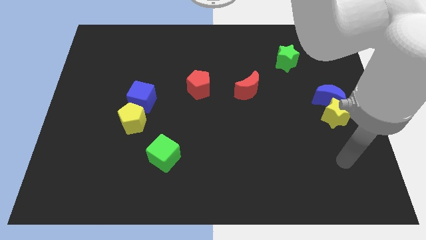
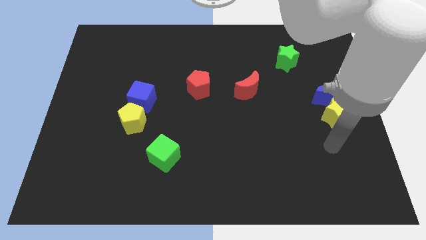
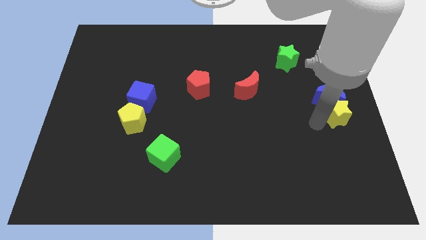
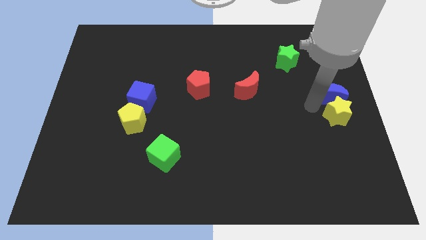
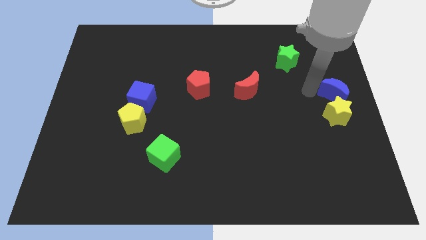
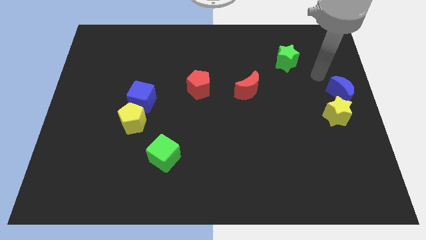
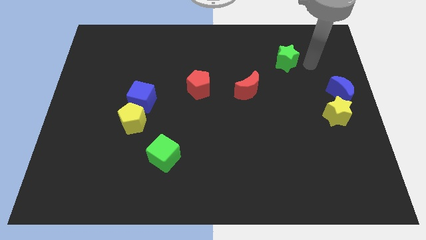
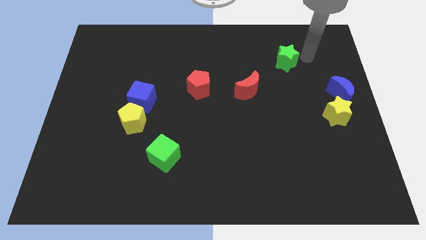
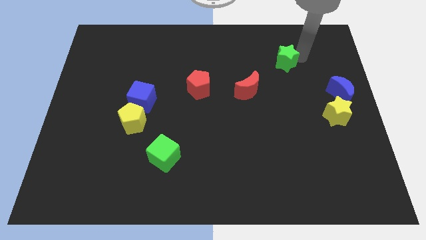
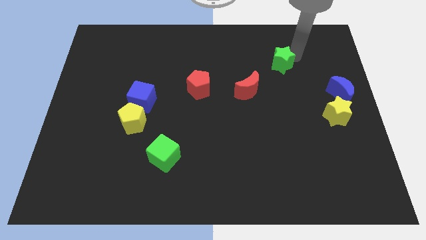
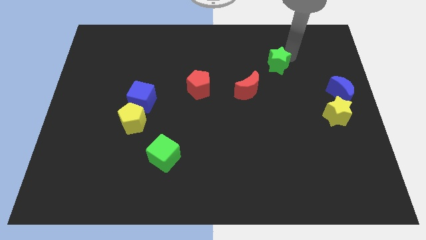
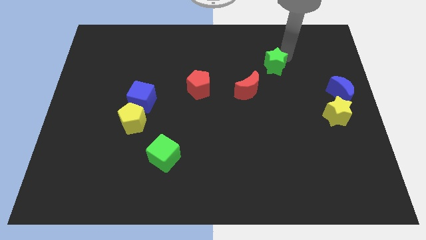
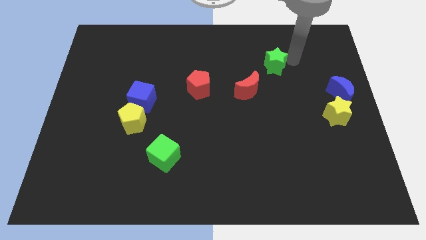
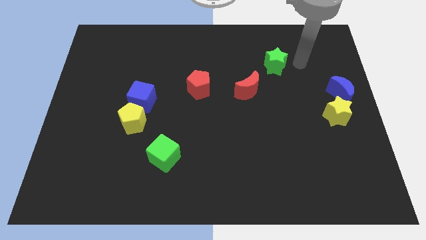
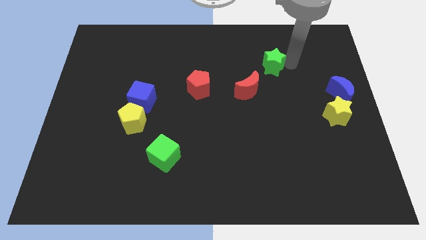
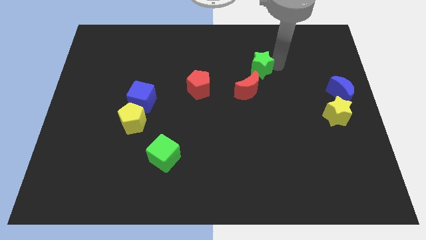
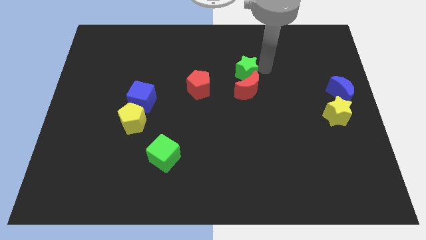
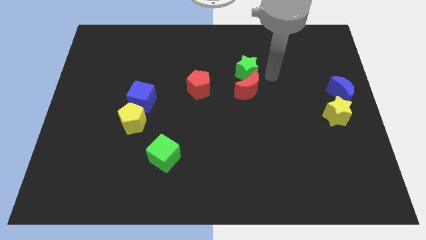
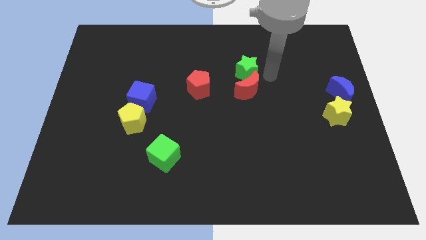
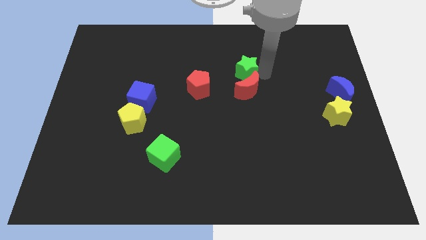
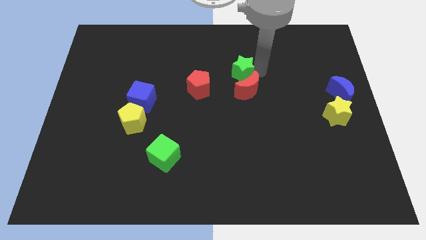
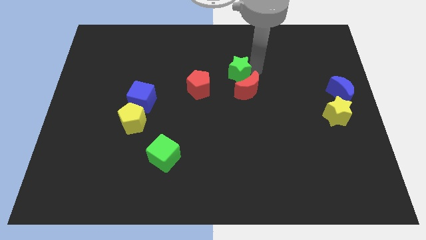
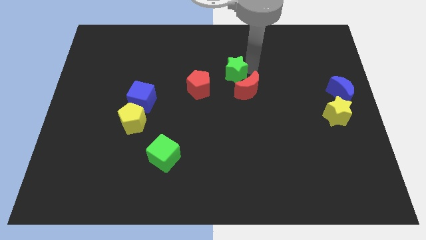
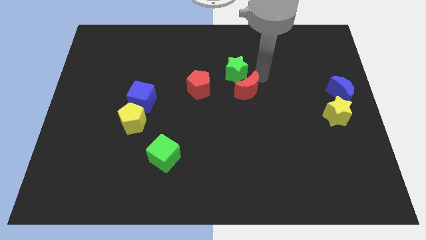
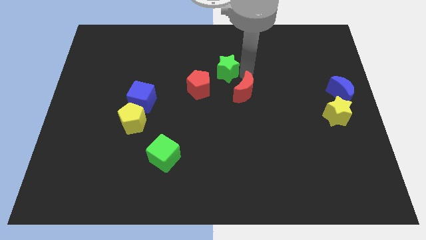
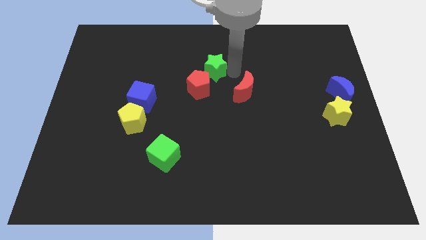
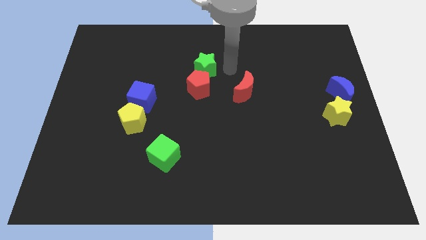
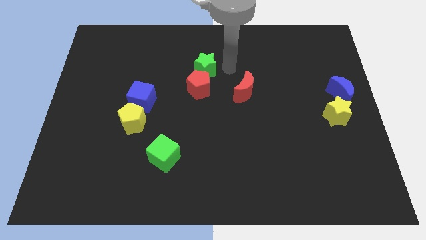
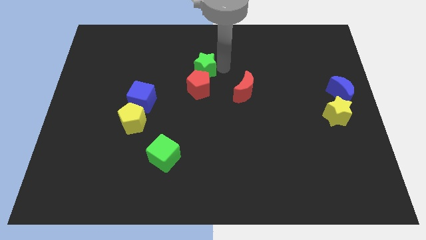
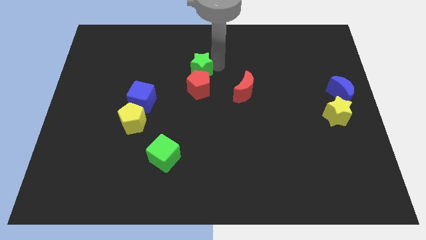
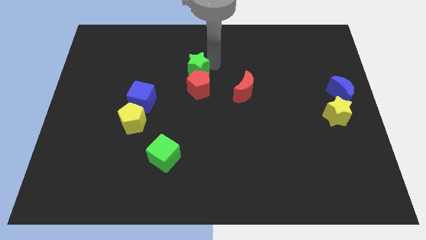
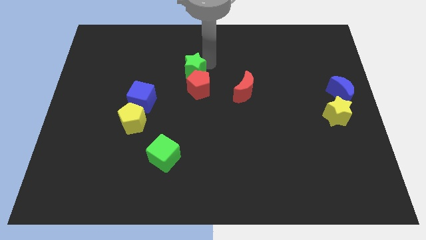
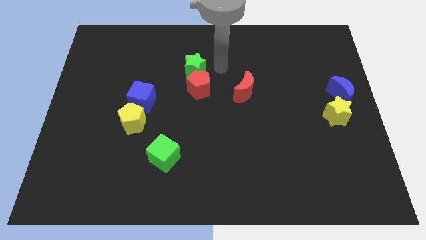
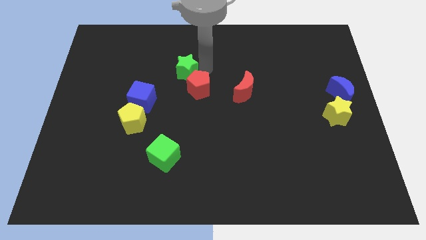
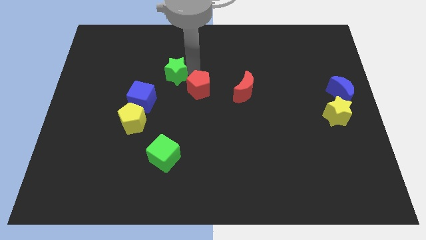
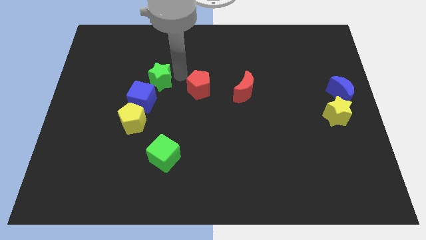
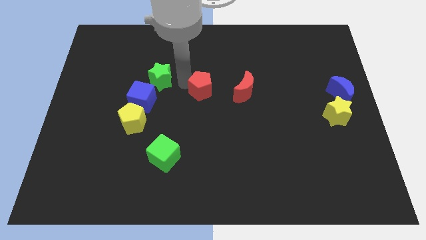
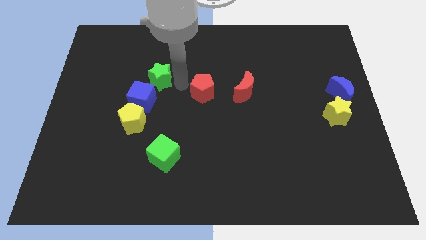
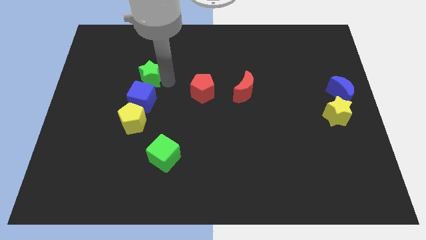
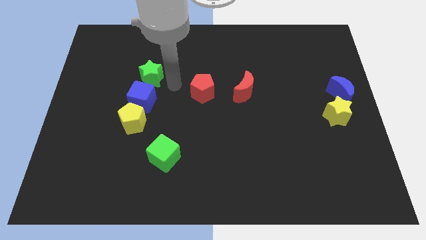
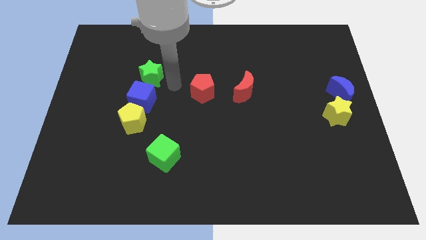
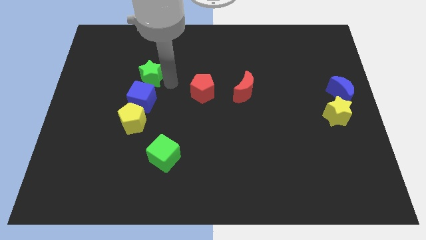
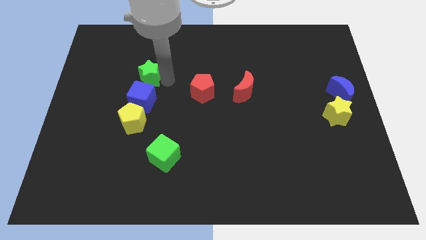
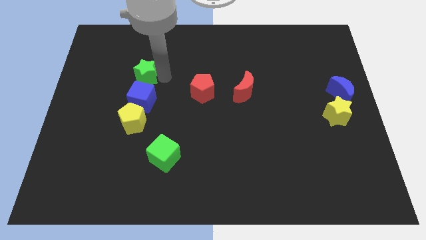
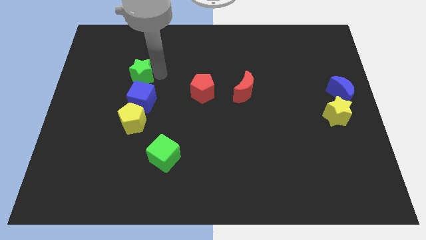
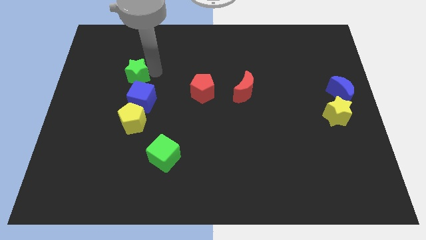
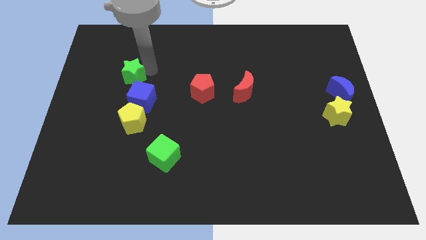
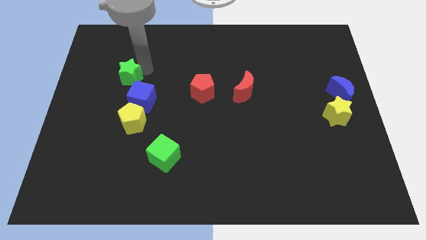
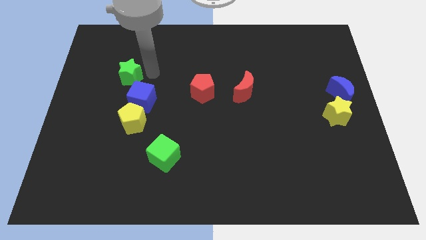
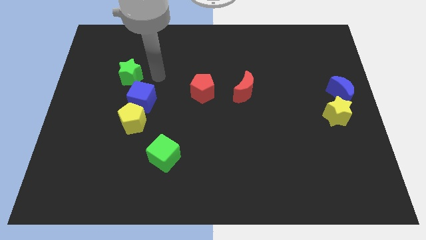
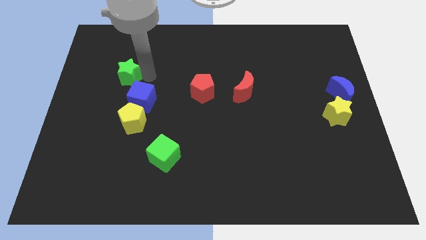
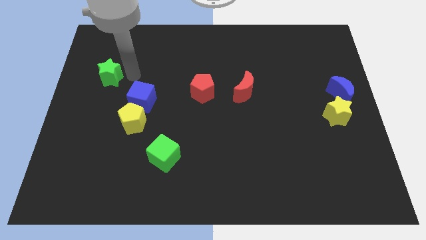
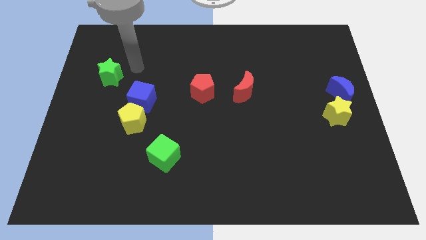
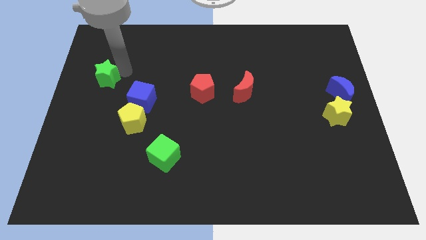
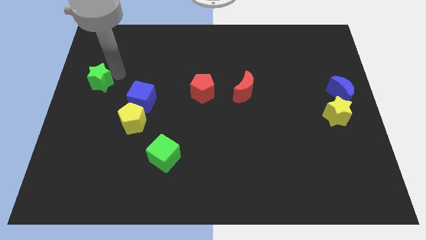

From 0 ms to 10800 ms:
move the green star to the left side
